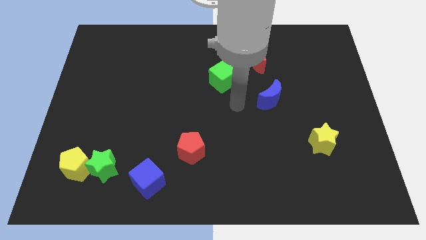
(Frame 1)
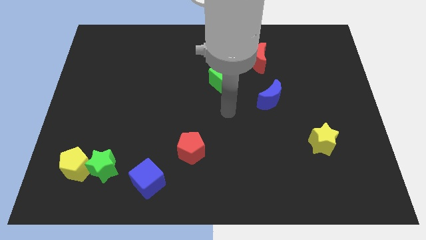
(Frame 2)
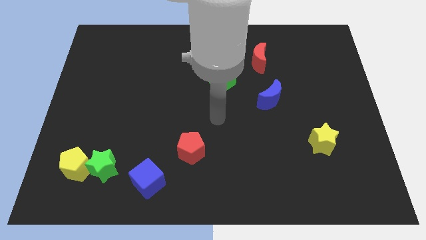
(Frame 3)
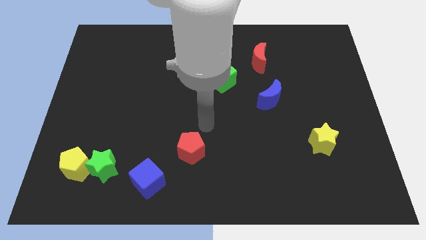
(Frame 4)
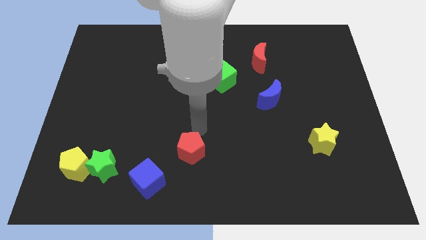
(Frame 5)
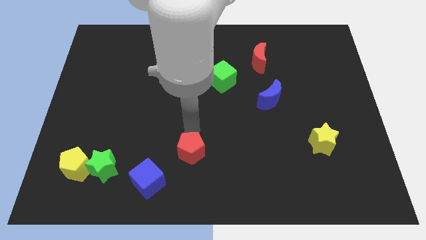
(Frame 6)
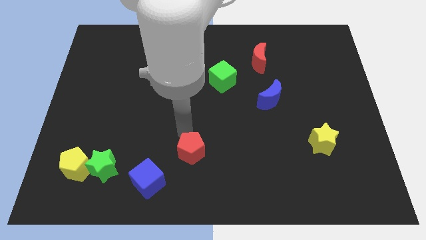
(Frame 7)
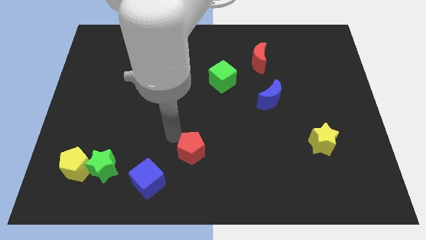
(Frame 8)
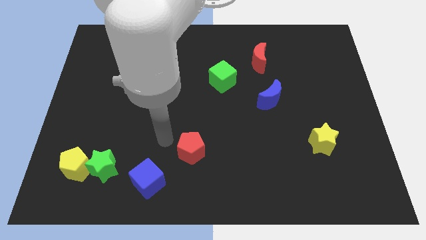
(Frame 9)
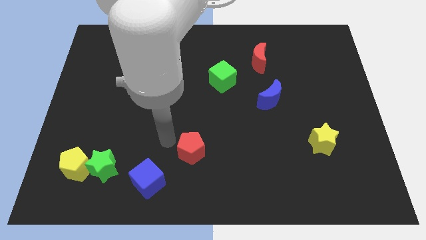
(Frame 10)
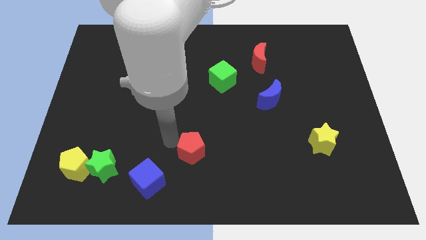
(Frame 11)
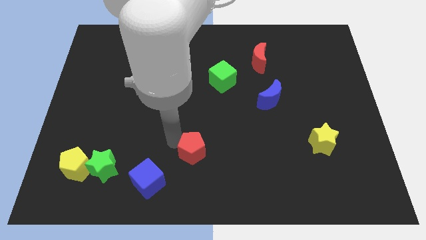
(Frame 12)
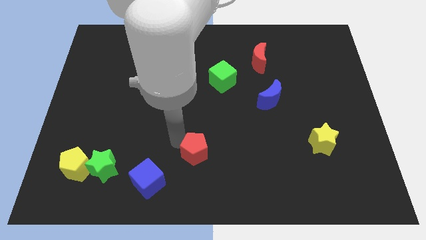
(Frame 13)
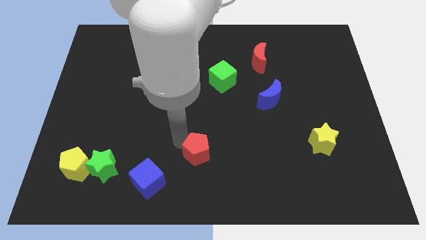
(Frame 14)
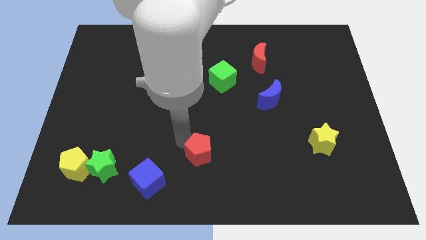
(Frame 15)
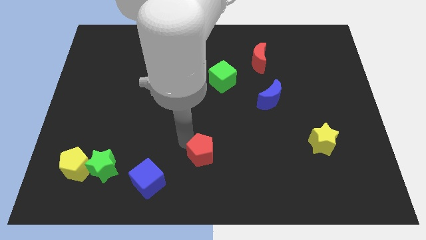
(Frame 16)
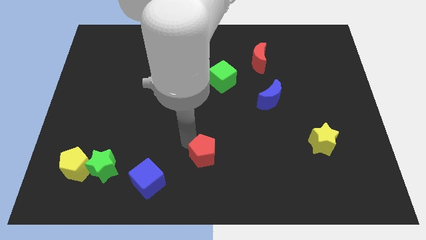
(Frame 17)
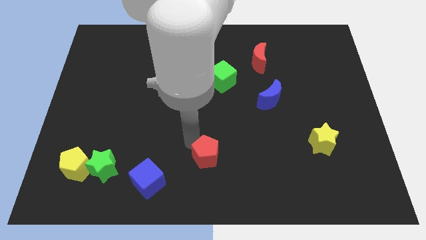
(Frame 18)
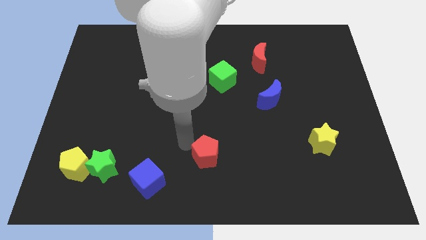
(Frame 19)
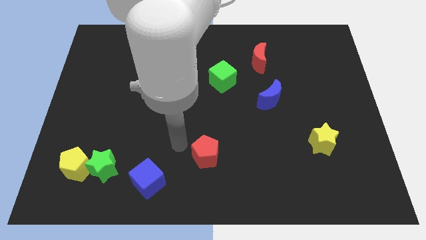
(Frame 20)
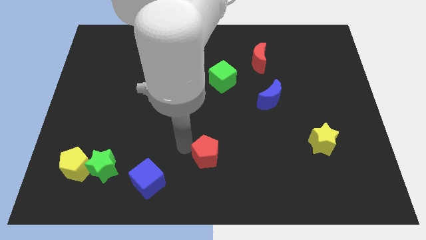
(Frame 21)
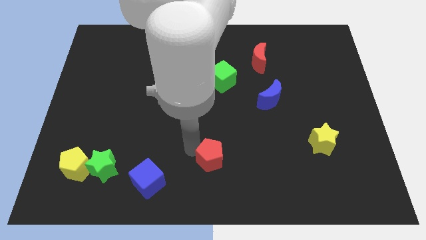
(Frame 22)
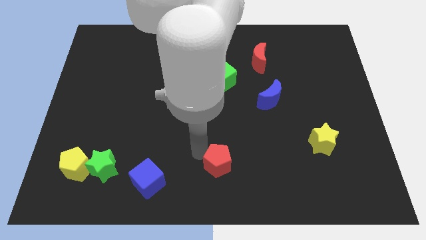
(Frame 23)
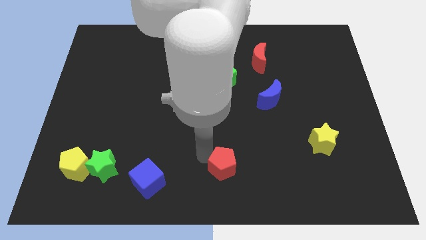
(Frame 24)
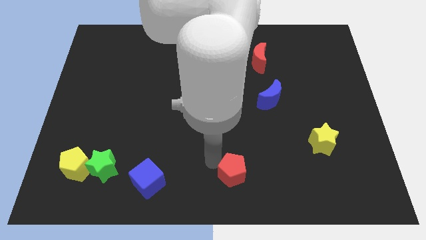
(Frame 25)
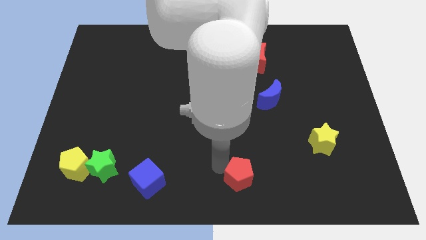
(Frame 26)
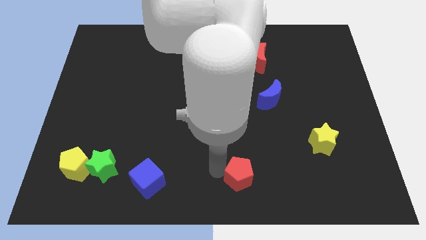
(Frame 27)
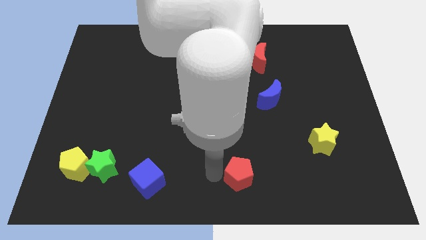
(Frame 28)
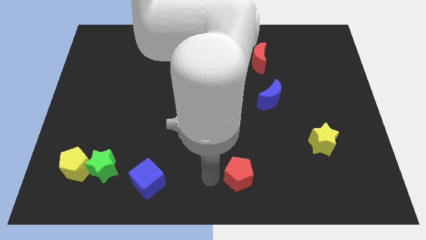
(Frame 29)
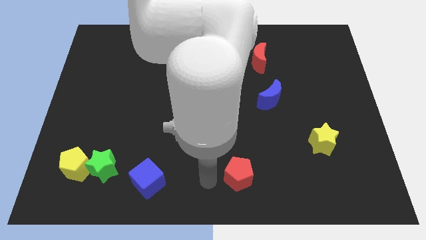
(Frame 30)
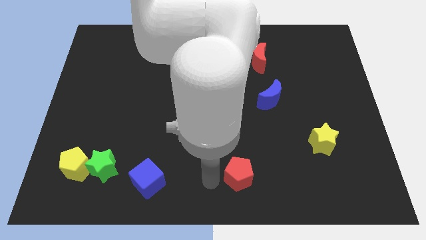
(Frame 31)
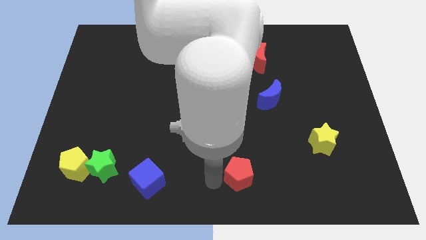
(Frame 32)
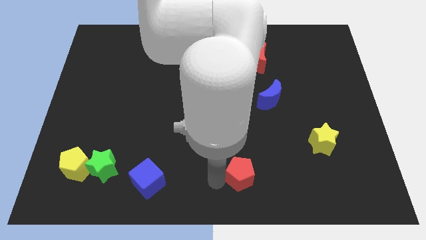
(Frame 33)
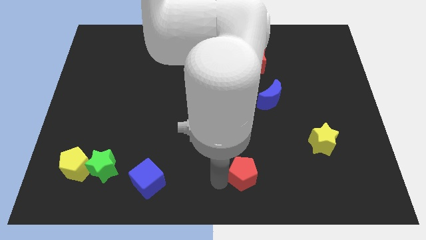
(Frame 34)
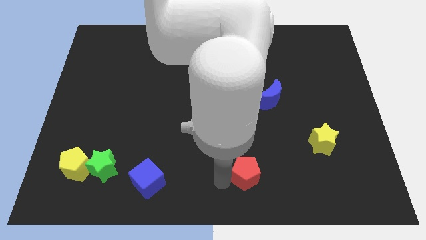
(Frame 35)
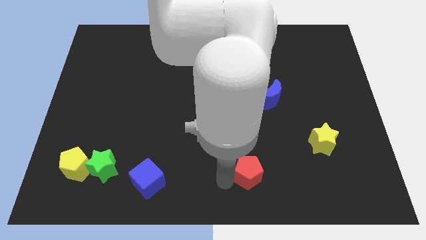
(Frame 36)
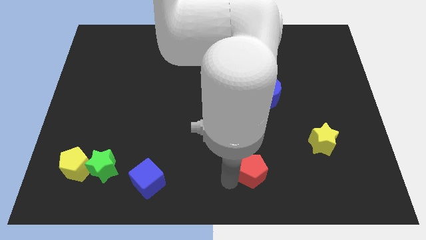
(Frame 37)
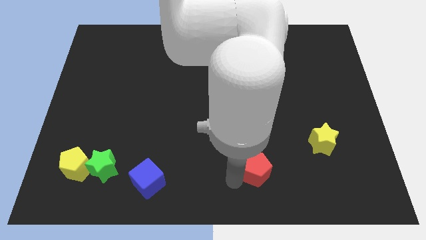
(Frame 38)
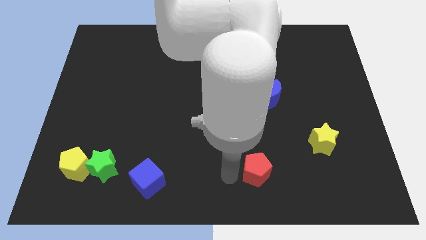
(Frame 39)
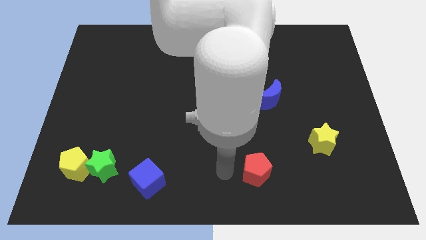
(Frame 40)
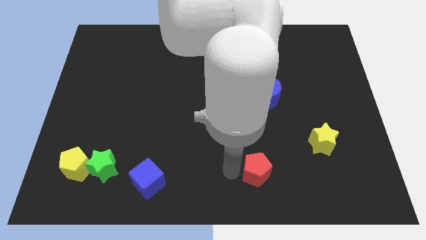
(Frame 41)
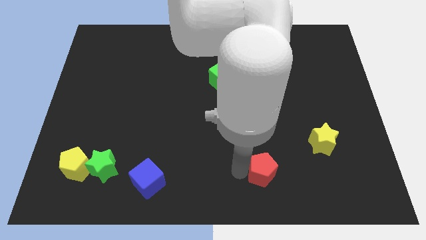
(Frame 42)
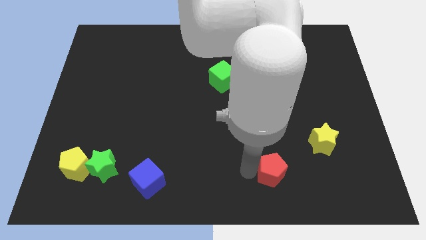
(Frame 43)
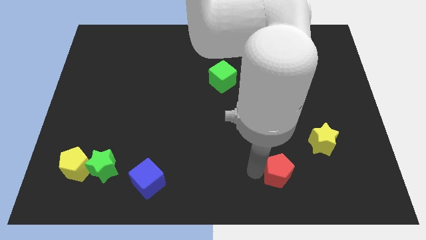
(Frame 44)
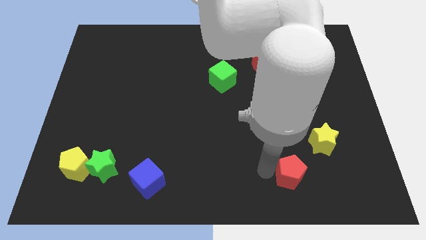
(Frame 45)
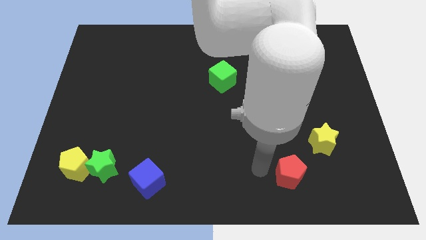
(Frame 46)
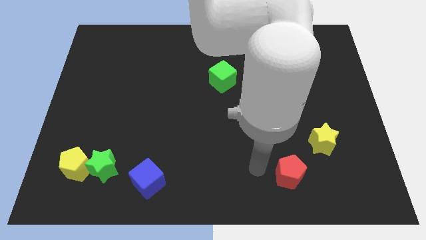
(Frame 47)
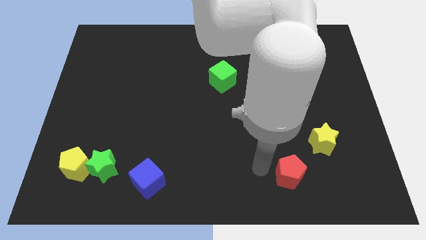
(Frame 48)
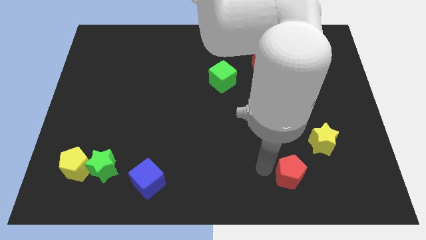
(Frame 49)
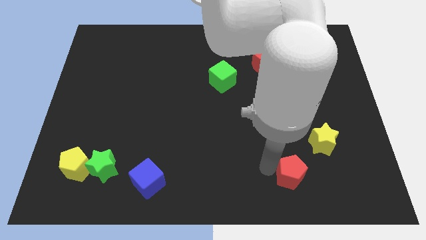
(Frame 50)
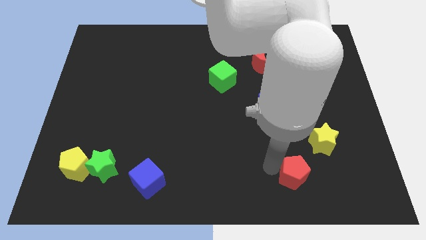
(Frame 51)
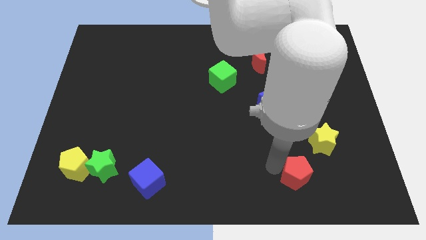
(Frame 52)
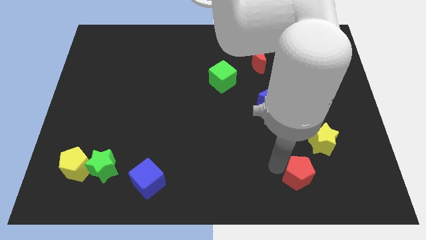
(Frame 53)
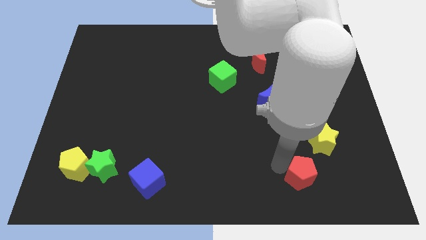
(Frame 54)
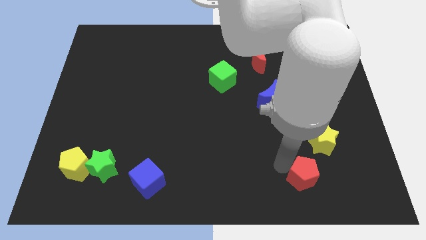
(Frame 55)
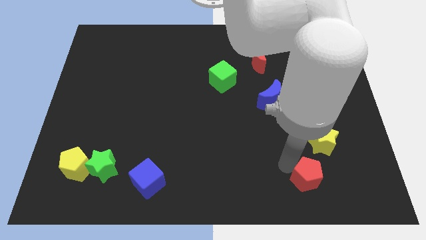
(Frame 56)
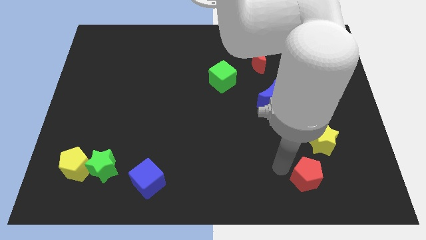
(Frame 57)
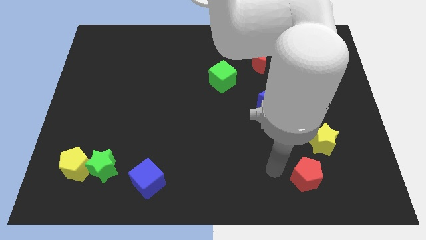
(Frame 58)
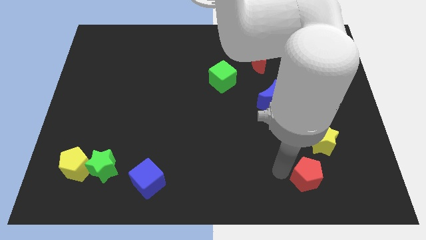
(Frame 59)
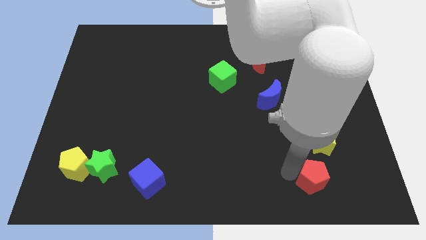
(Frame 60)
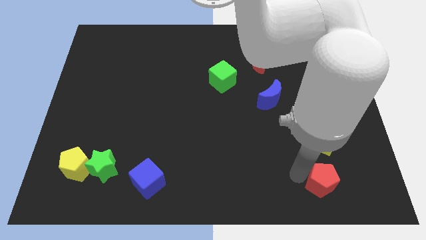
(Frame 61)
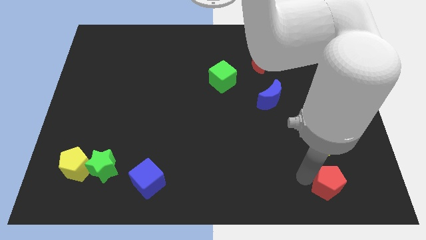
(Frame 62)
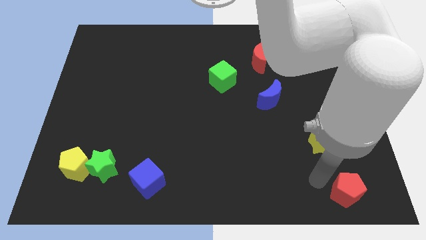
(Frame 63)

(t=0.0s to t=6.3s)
move the red pentagon to the bottom right of the board
